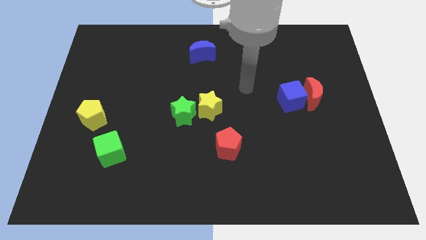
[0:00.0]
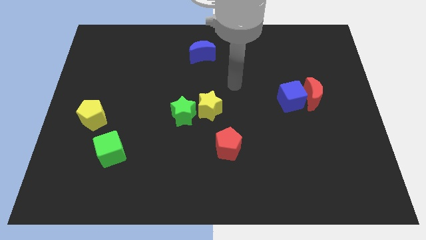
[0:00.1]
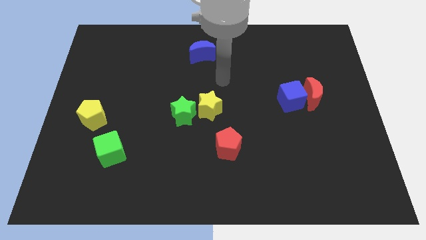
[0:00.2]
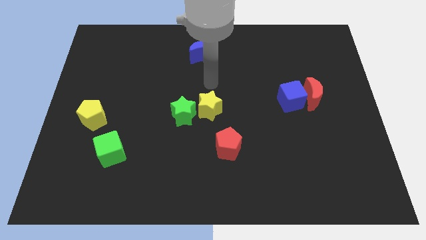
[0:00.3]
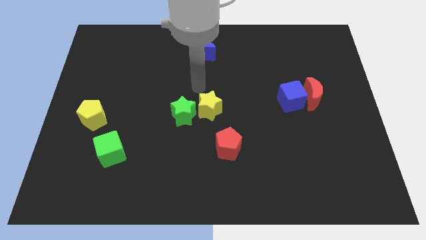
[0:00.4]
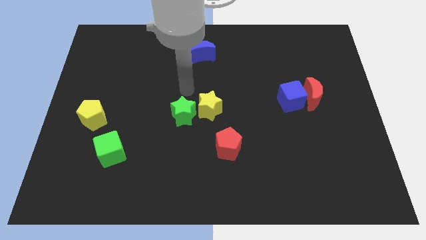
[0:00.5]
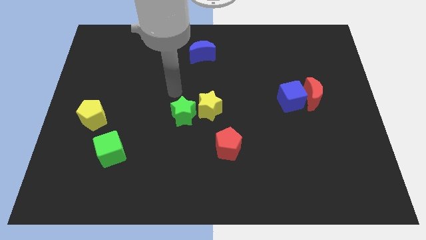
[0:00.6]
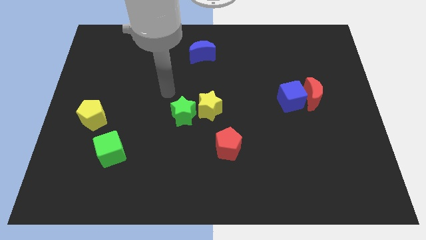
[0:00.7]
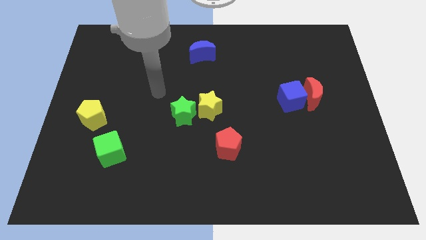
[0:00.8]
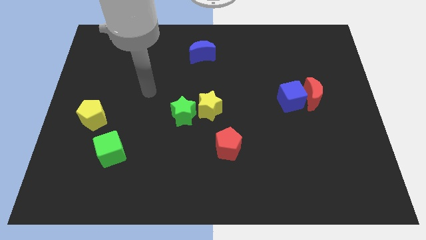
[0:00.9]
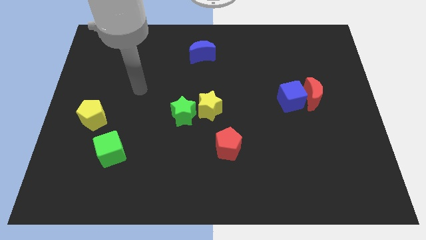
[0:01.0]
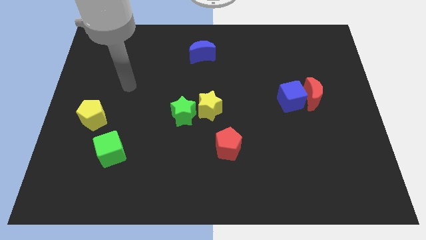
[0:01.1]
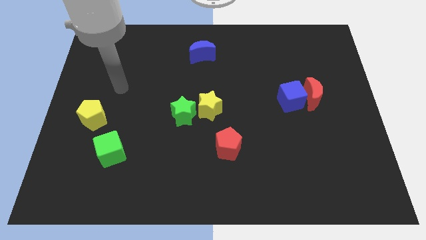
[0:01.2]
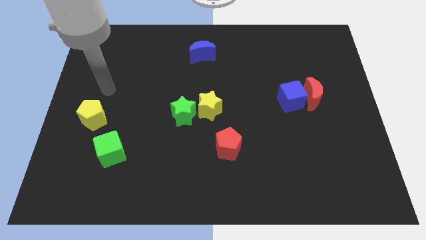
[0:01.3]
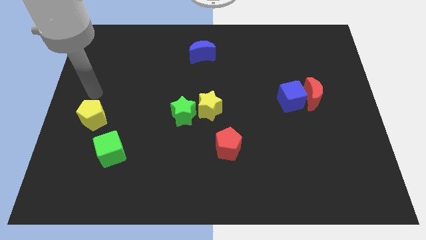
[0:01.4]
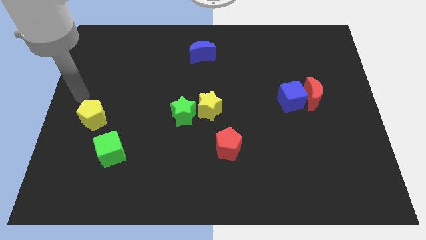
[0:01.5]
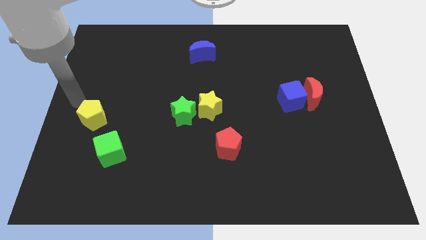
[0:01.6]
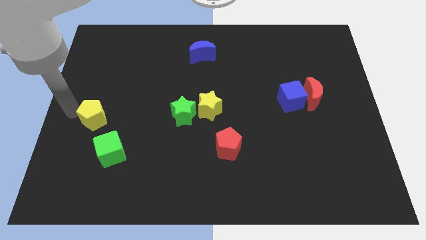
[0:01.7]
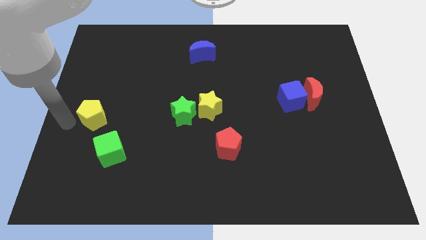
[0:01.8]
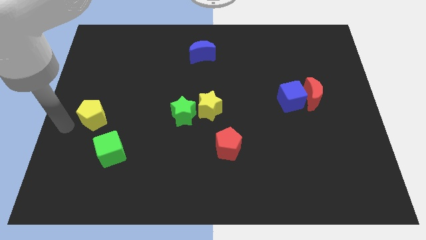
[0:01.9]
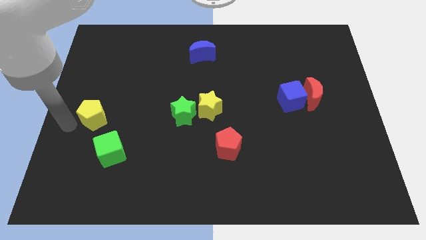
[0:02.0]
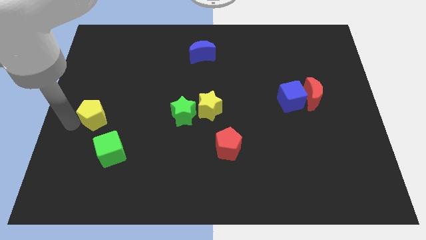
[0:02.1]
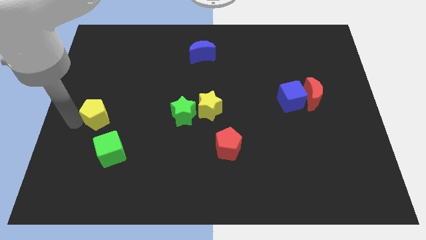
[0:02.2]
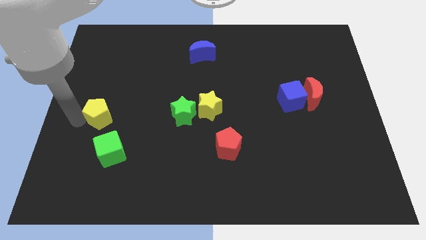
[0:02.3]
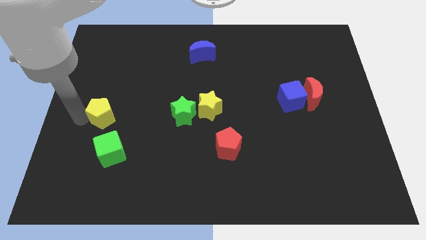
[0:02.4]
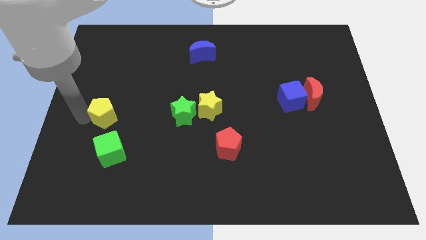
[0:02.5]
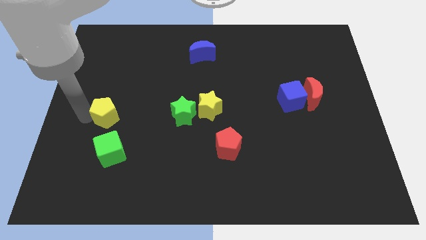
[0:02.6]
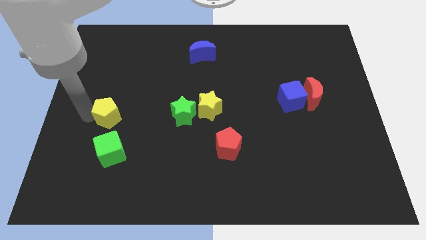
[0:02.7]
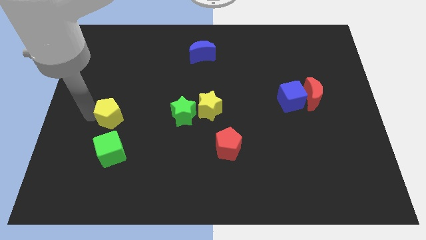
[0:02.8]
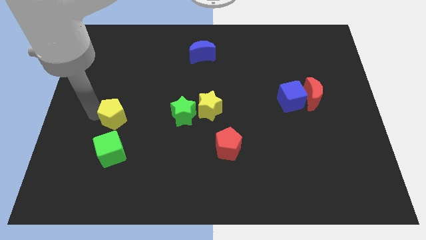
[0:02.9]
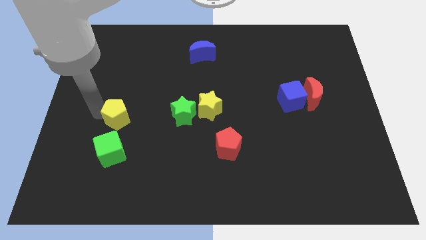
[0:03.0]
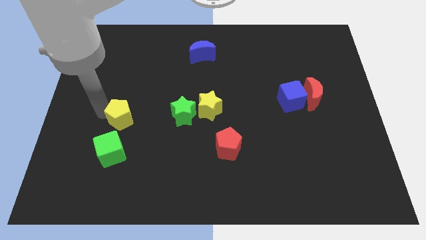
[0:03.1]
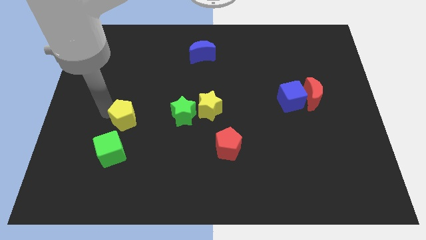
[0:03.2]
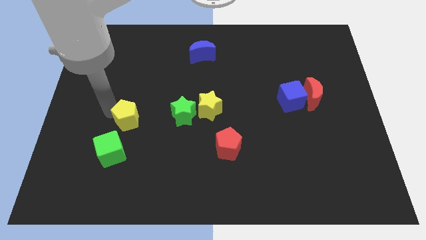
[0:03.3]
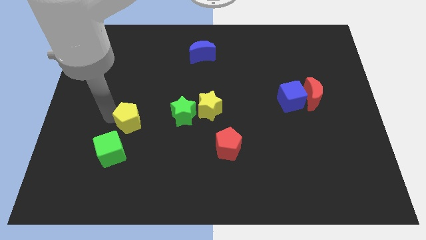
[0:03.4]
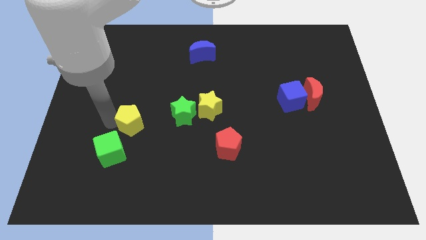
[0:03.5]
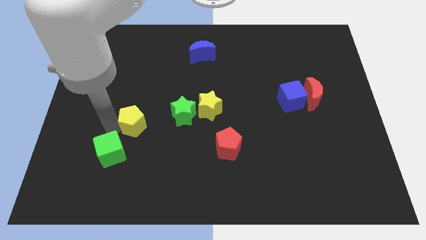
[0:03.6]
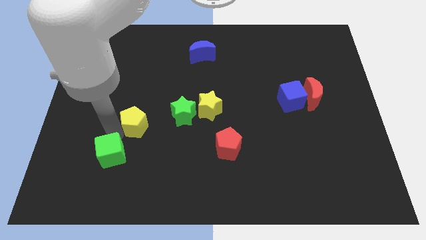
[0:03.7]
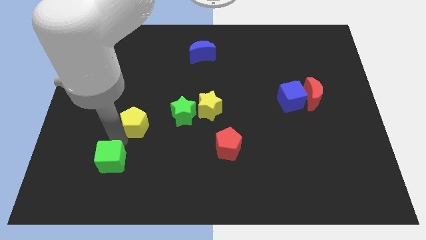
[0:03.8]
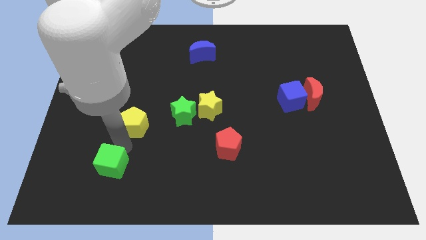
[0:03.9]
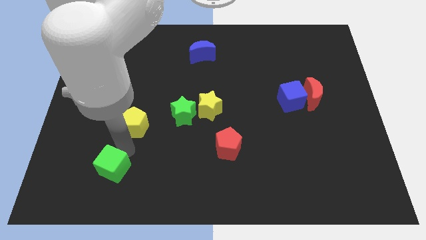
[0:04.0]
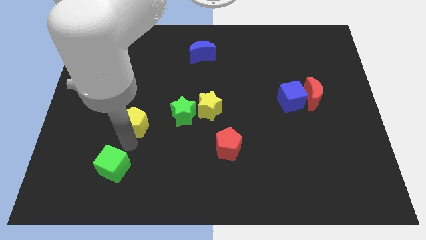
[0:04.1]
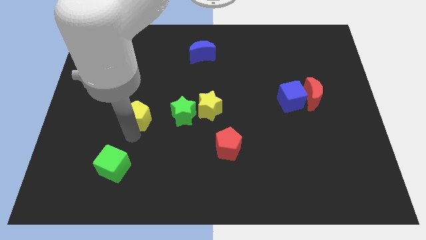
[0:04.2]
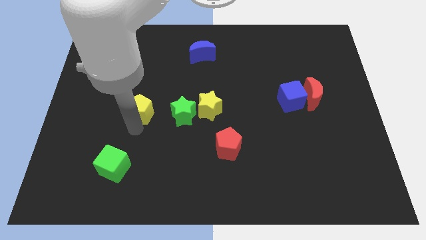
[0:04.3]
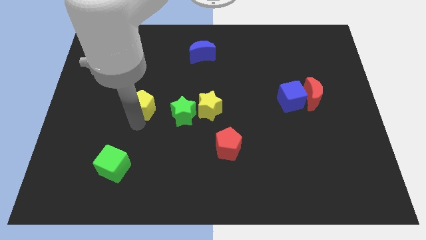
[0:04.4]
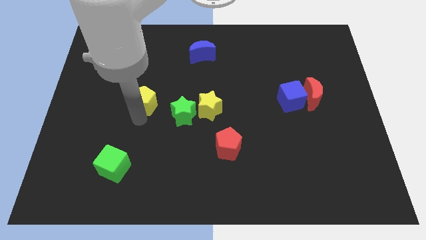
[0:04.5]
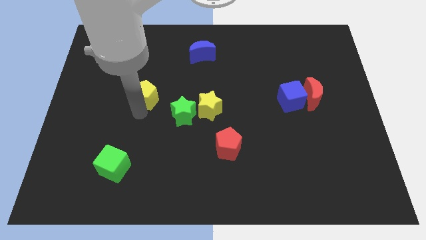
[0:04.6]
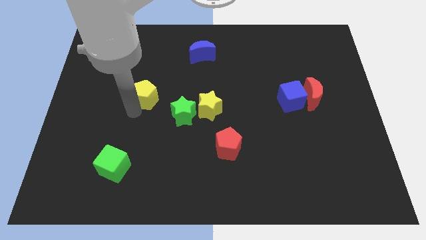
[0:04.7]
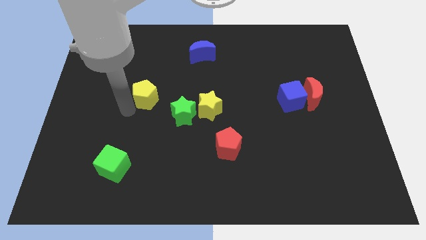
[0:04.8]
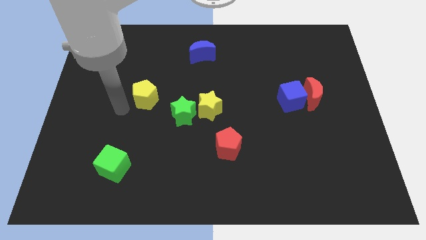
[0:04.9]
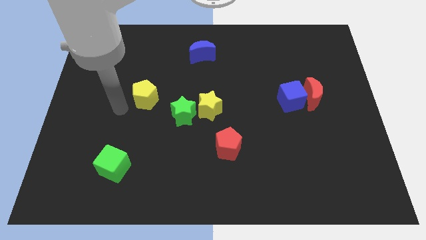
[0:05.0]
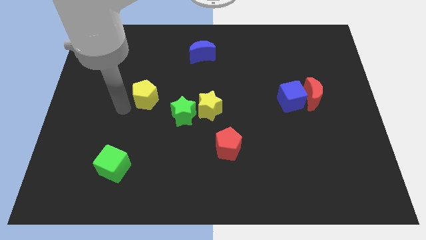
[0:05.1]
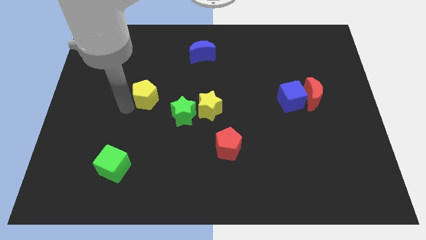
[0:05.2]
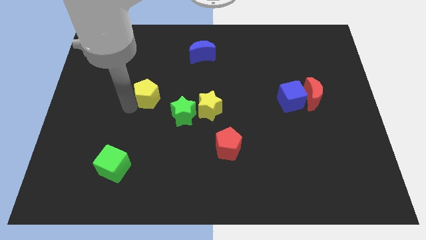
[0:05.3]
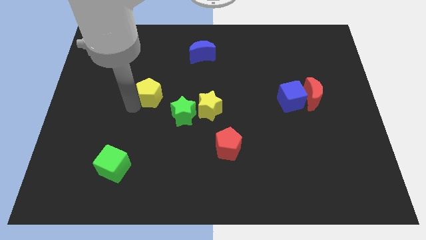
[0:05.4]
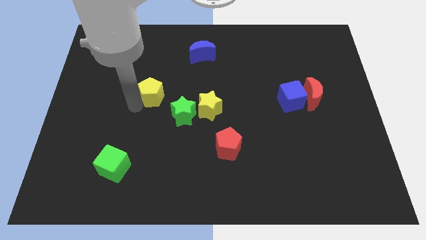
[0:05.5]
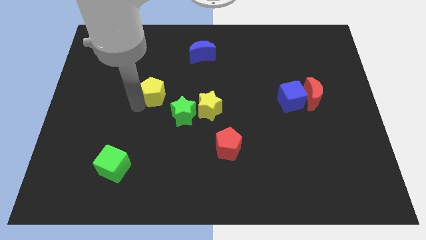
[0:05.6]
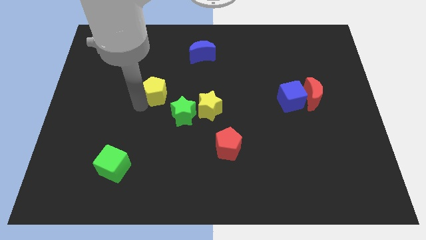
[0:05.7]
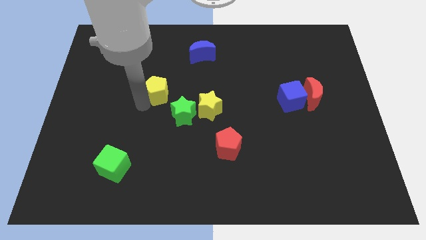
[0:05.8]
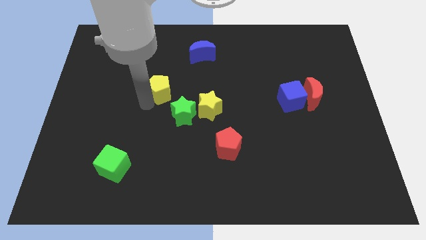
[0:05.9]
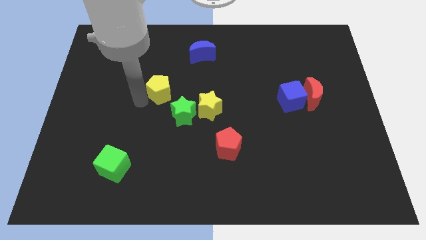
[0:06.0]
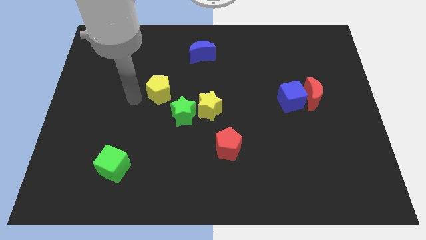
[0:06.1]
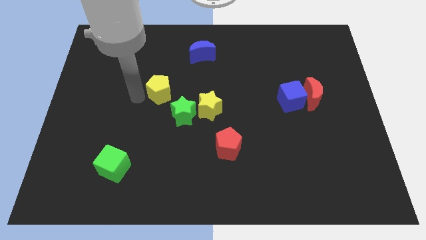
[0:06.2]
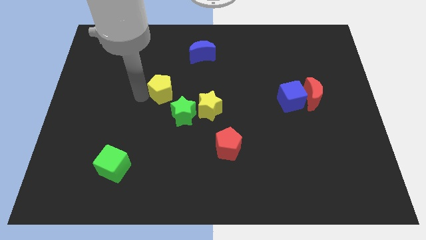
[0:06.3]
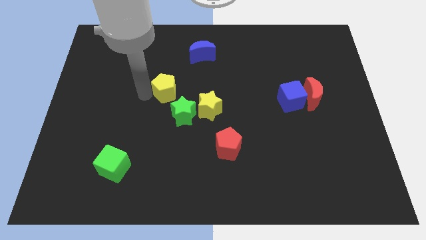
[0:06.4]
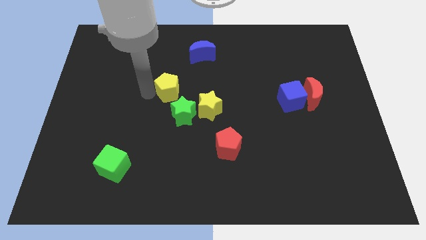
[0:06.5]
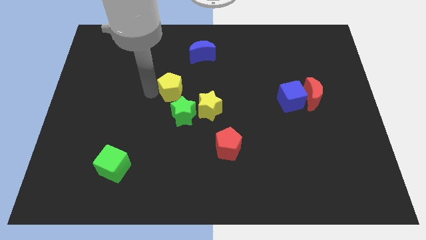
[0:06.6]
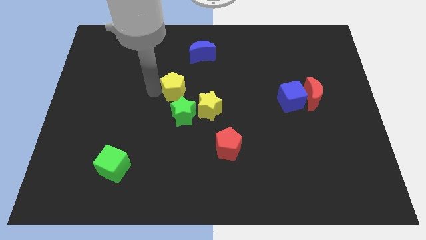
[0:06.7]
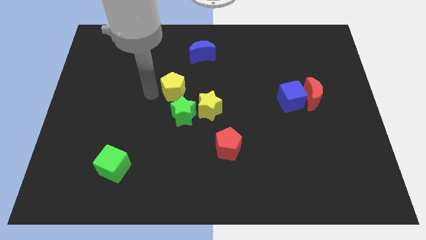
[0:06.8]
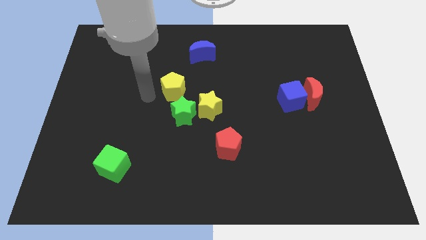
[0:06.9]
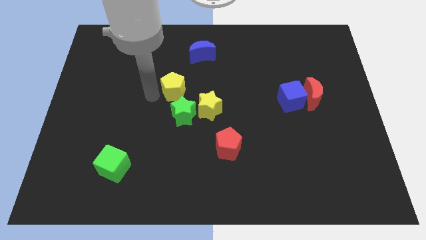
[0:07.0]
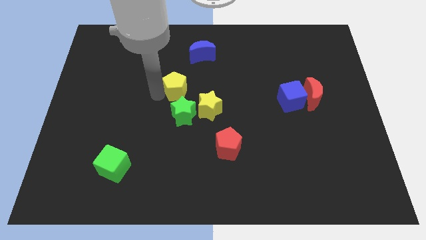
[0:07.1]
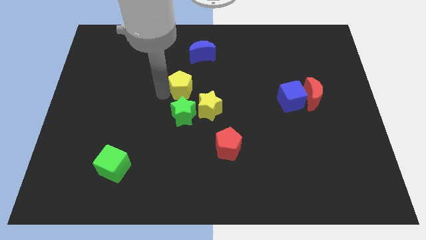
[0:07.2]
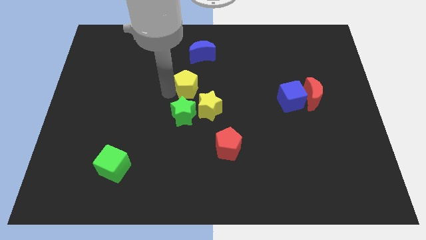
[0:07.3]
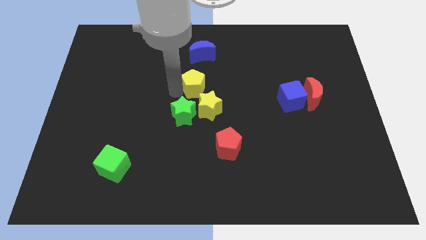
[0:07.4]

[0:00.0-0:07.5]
push the yellow pentagon above the yellow star
